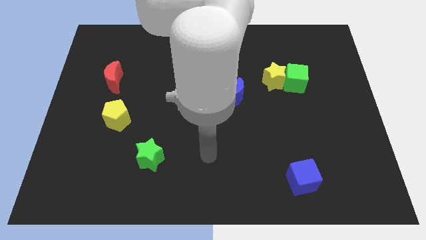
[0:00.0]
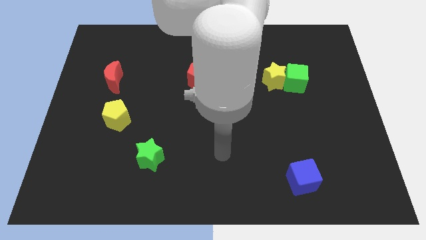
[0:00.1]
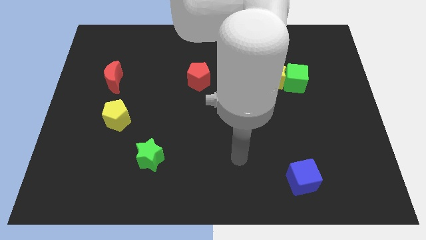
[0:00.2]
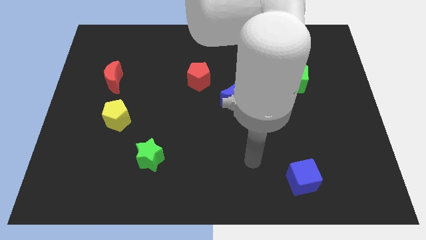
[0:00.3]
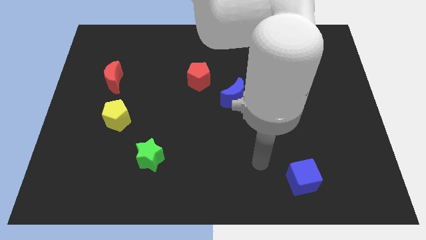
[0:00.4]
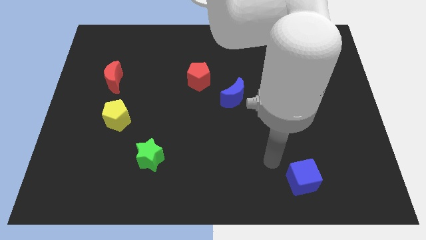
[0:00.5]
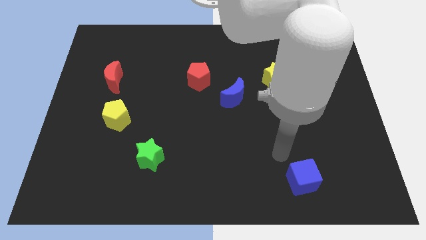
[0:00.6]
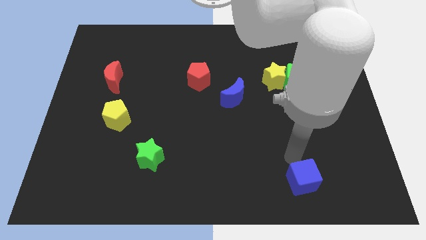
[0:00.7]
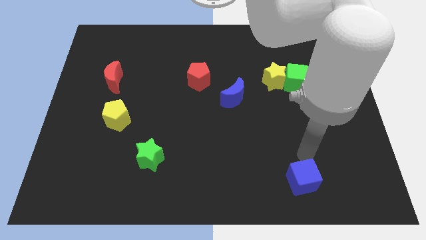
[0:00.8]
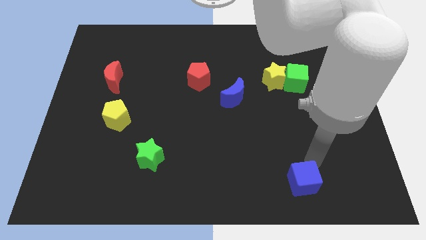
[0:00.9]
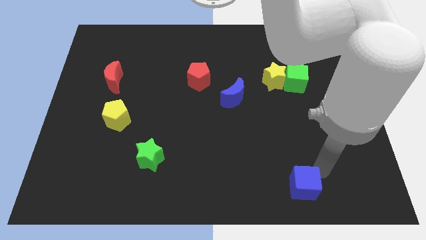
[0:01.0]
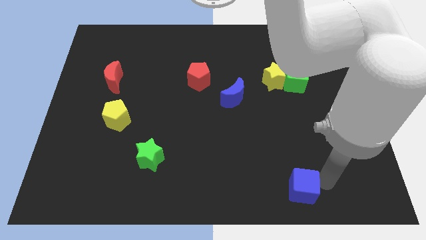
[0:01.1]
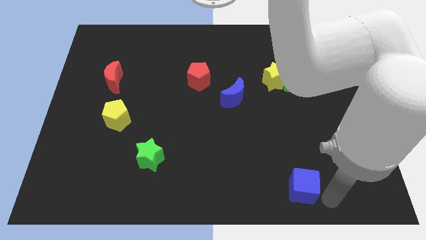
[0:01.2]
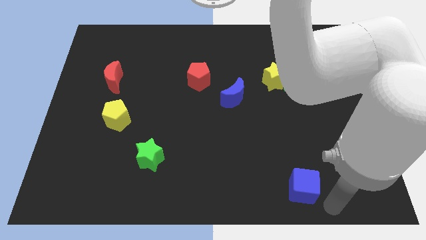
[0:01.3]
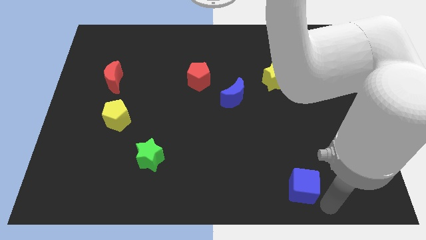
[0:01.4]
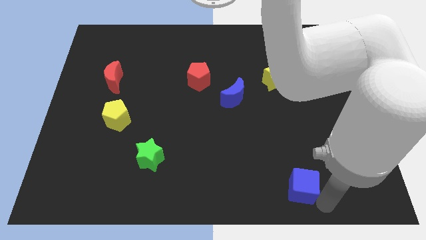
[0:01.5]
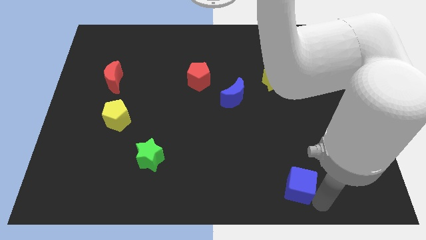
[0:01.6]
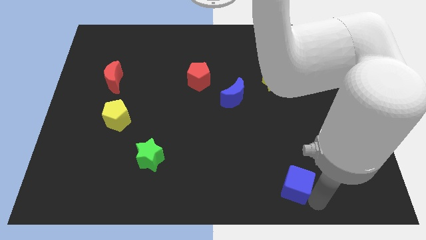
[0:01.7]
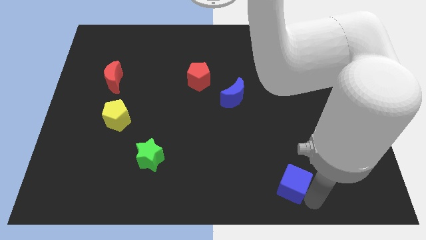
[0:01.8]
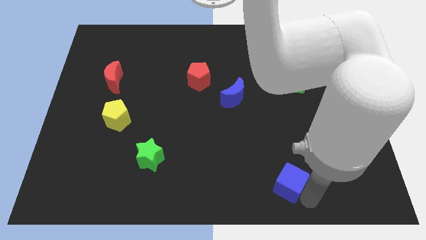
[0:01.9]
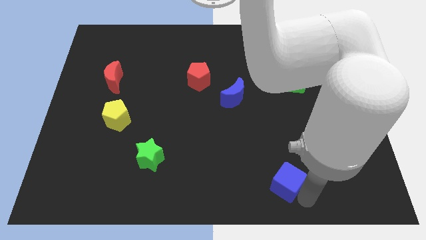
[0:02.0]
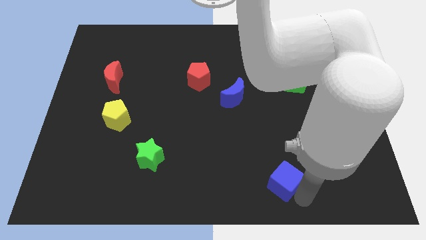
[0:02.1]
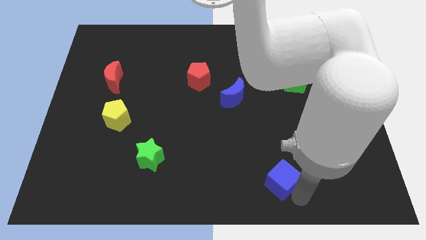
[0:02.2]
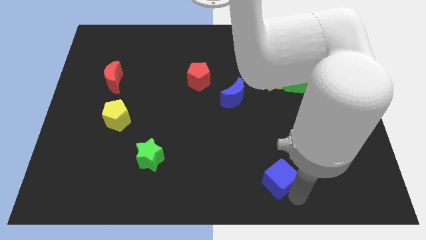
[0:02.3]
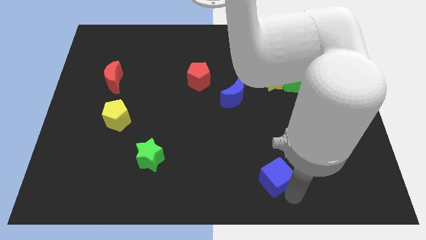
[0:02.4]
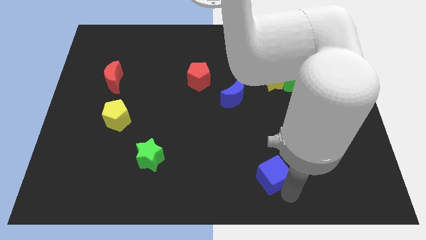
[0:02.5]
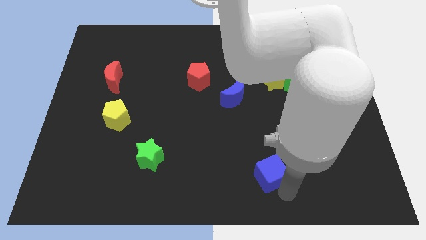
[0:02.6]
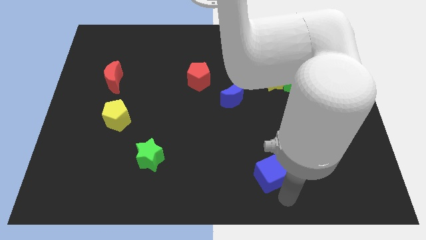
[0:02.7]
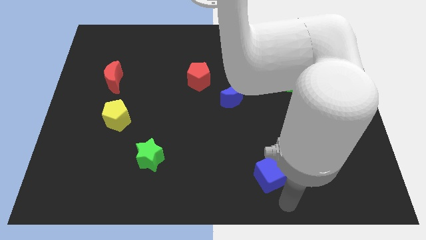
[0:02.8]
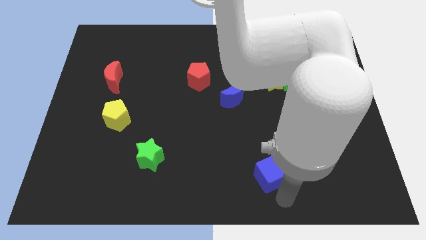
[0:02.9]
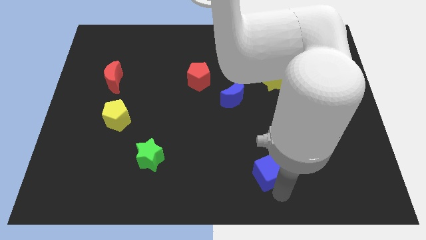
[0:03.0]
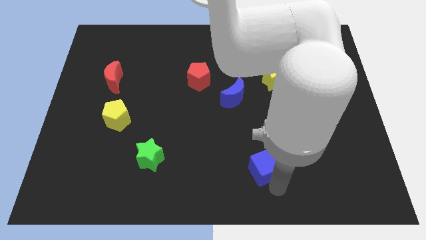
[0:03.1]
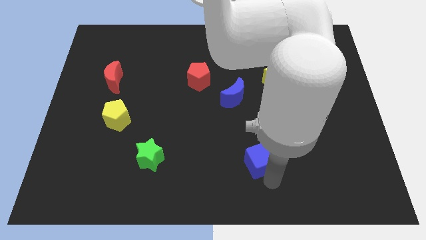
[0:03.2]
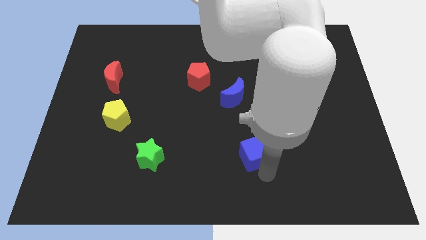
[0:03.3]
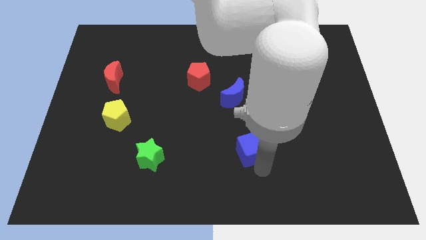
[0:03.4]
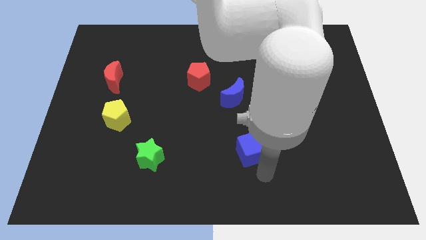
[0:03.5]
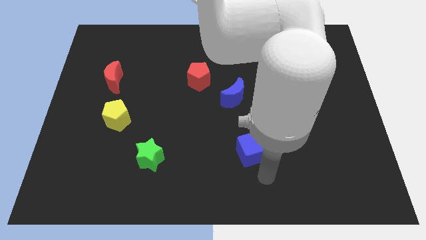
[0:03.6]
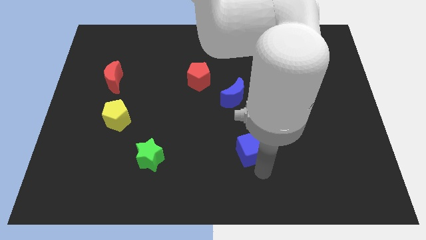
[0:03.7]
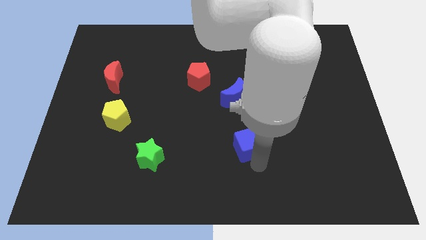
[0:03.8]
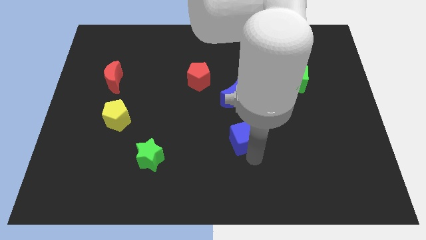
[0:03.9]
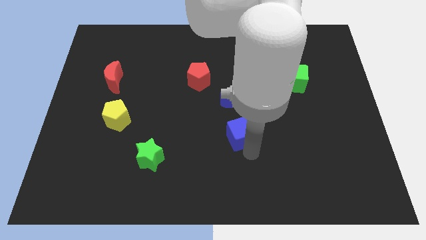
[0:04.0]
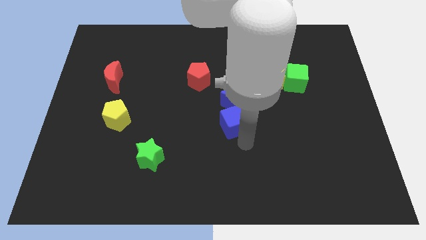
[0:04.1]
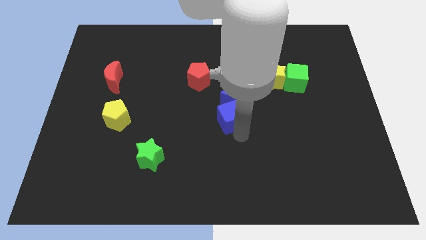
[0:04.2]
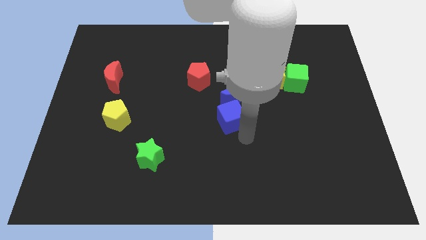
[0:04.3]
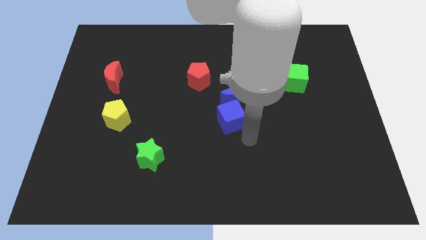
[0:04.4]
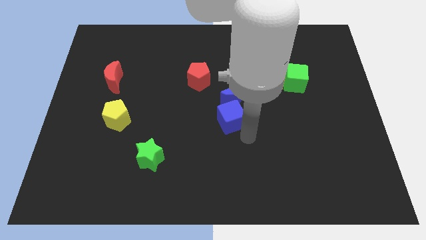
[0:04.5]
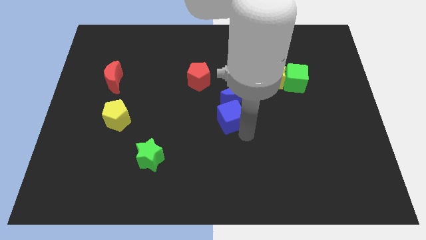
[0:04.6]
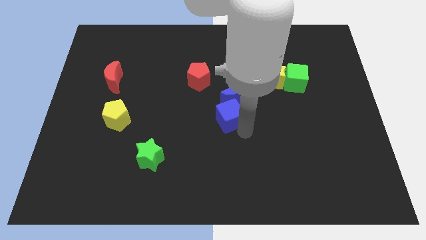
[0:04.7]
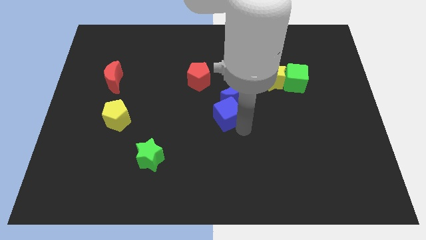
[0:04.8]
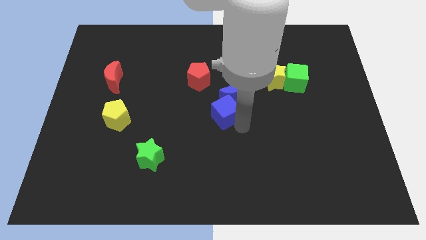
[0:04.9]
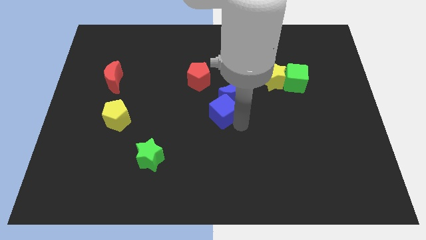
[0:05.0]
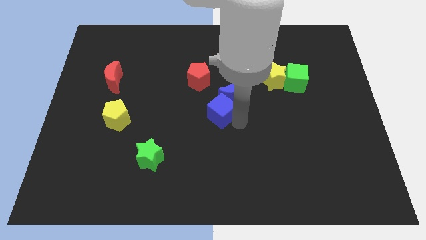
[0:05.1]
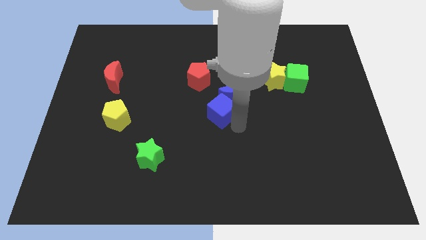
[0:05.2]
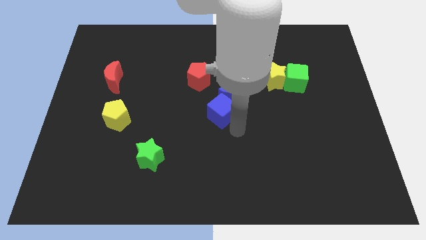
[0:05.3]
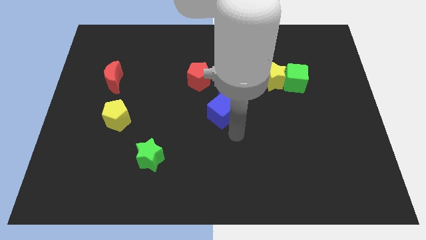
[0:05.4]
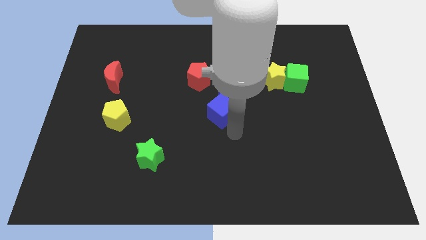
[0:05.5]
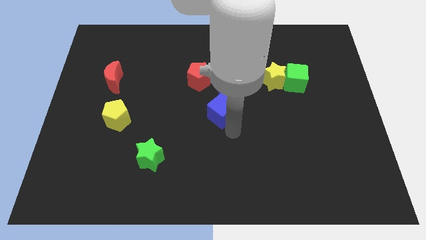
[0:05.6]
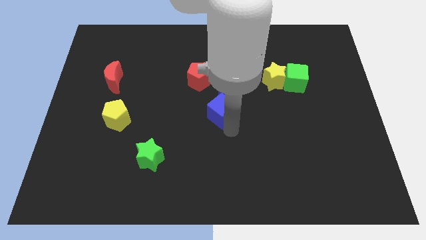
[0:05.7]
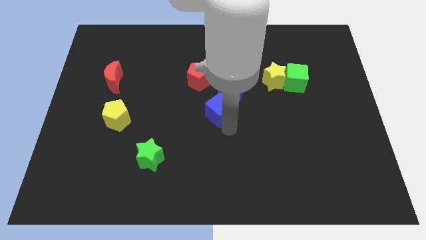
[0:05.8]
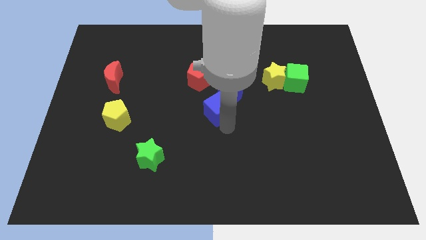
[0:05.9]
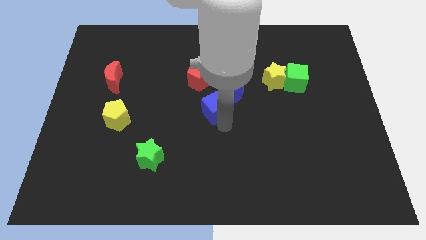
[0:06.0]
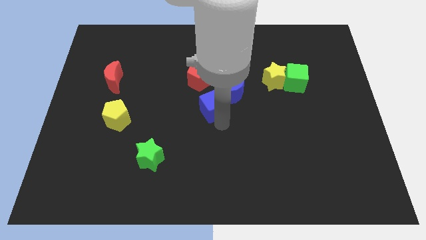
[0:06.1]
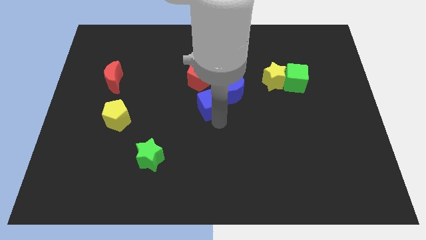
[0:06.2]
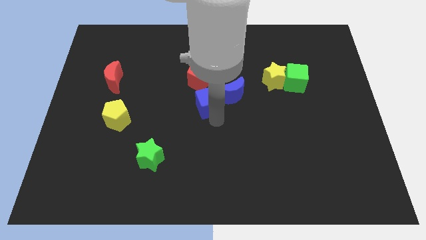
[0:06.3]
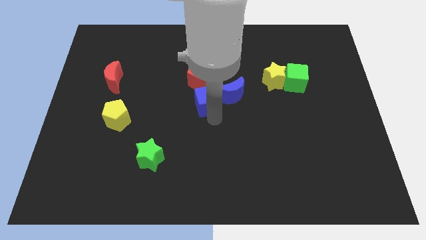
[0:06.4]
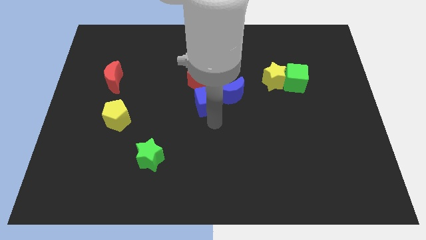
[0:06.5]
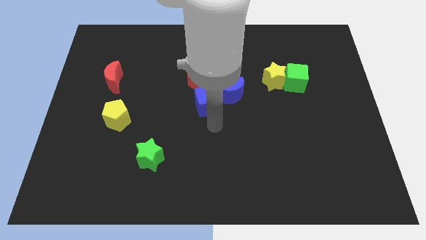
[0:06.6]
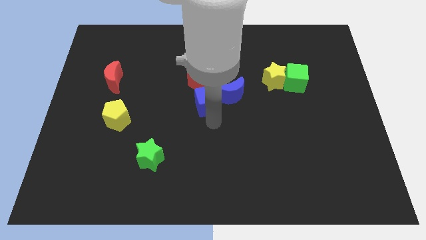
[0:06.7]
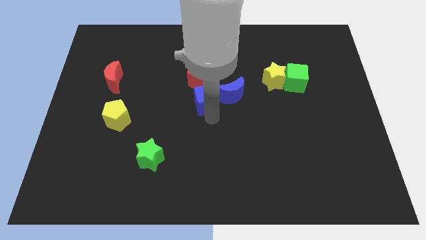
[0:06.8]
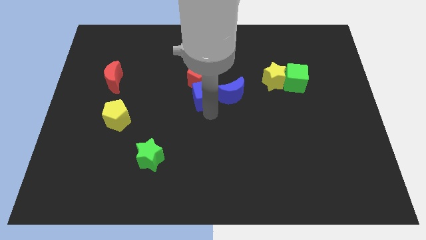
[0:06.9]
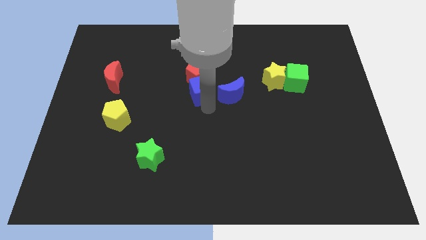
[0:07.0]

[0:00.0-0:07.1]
push the blue cube towards the red pentagon
